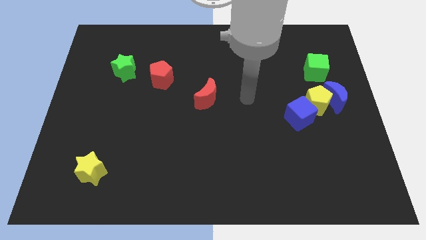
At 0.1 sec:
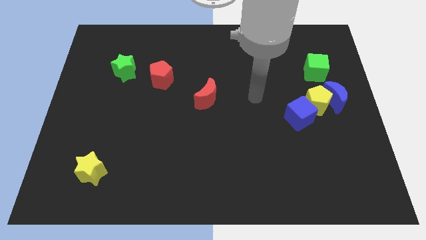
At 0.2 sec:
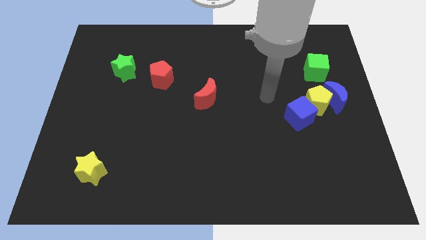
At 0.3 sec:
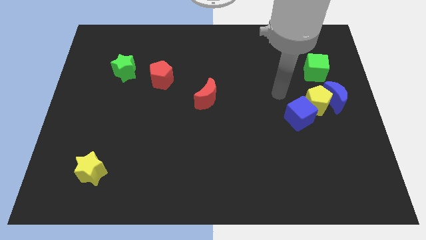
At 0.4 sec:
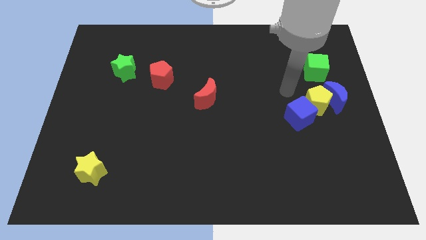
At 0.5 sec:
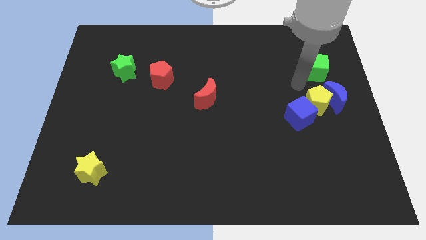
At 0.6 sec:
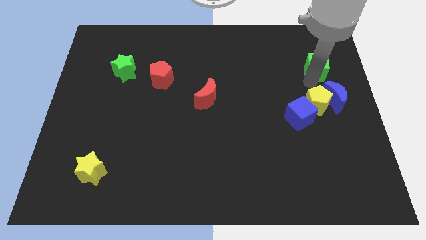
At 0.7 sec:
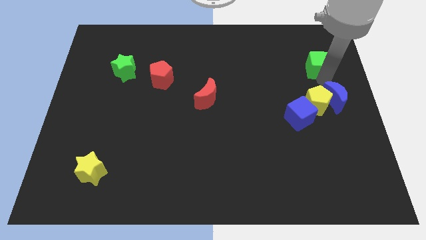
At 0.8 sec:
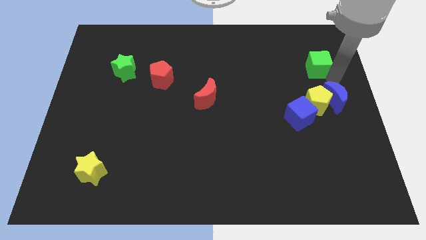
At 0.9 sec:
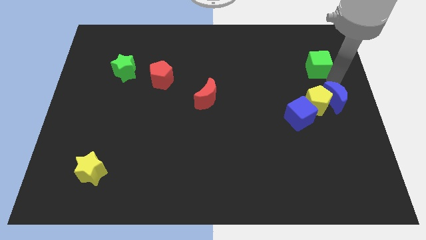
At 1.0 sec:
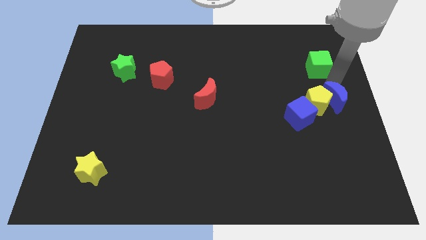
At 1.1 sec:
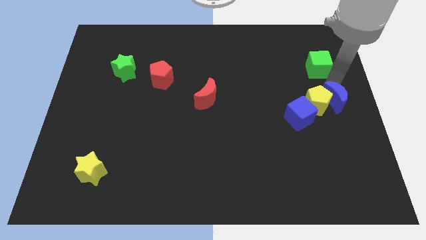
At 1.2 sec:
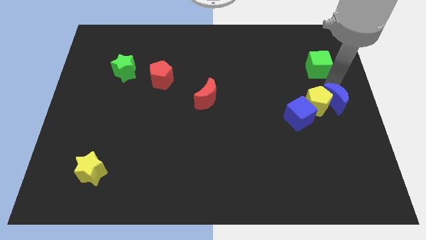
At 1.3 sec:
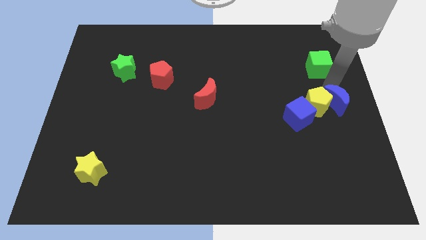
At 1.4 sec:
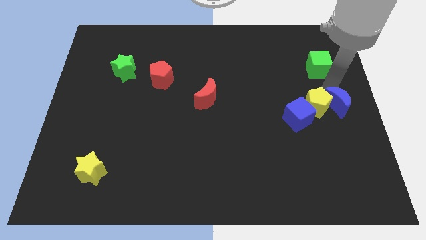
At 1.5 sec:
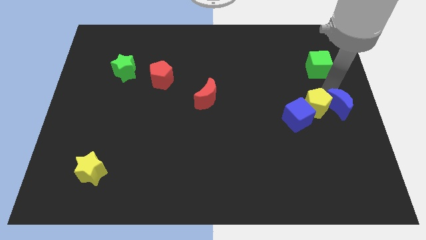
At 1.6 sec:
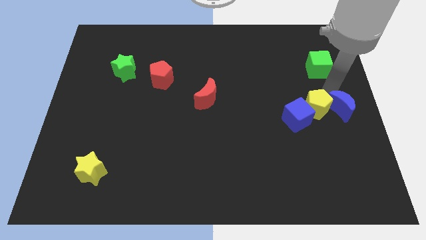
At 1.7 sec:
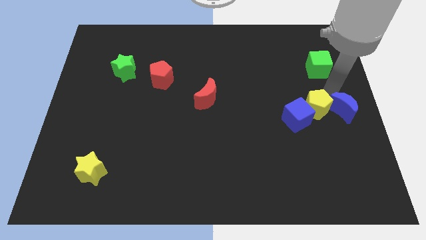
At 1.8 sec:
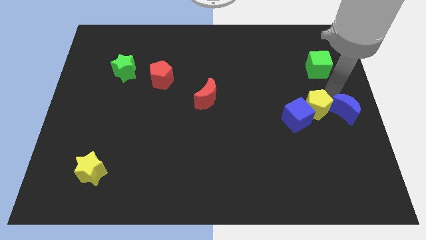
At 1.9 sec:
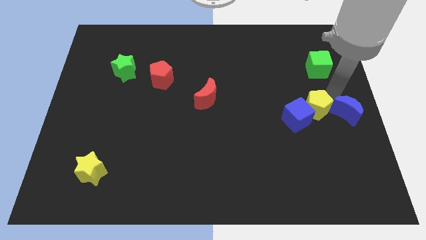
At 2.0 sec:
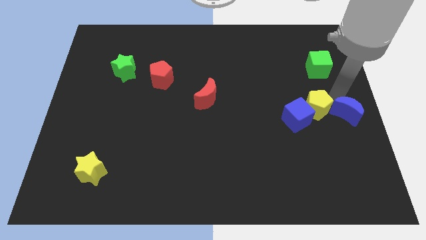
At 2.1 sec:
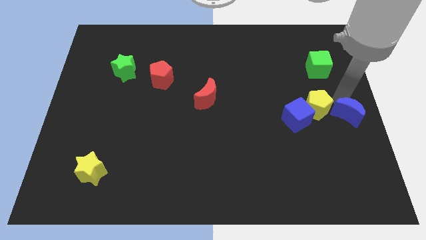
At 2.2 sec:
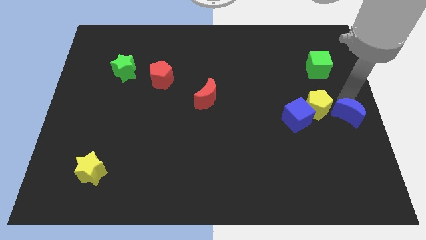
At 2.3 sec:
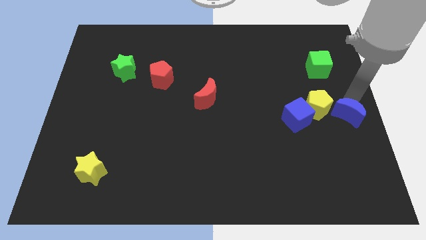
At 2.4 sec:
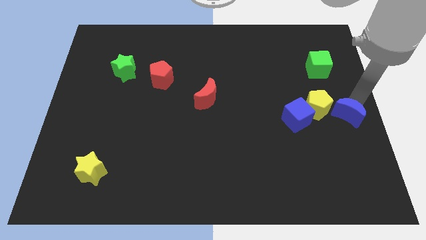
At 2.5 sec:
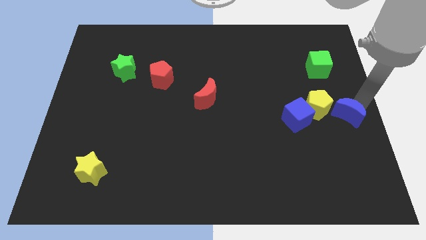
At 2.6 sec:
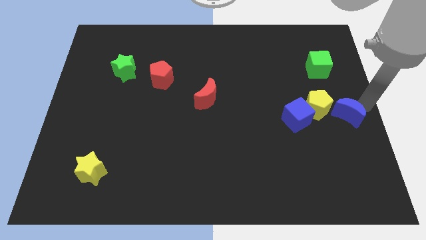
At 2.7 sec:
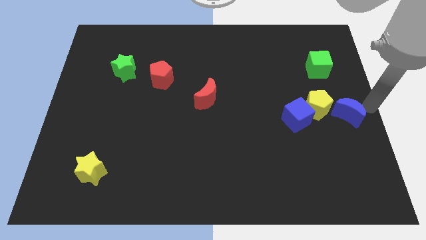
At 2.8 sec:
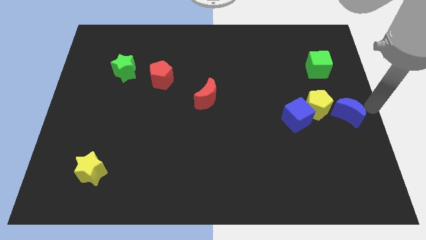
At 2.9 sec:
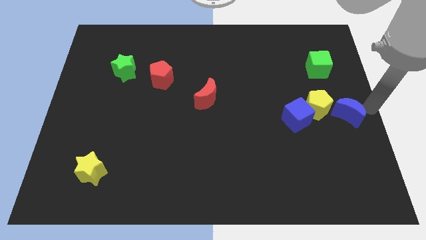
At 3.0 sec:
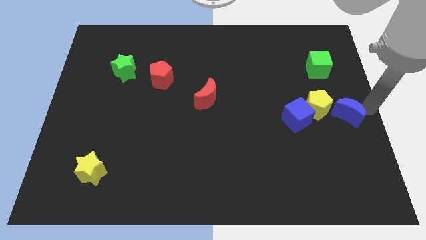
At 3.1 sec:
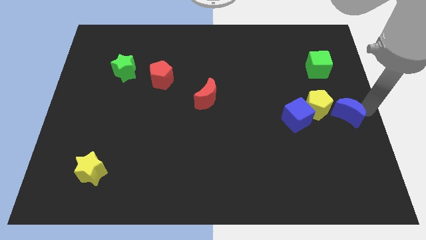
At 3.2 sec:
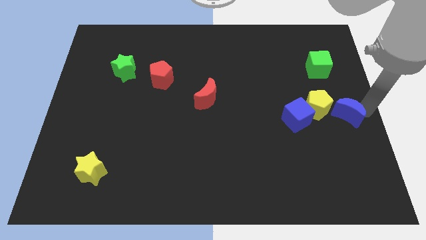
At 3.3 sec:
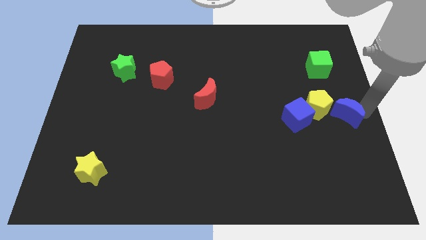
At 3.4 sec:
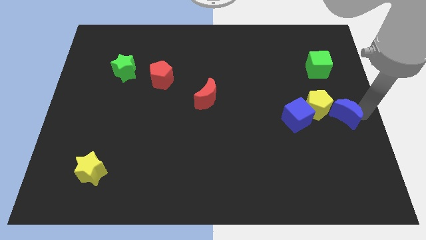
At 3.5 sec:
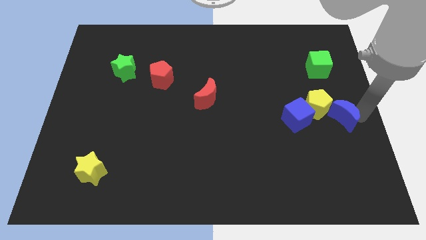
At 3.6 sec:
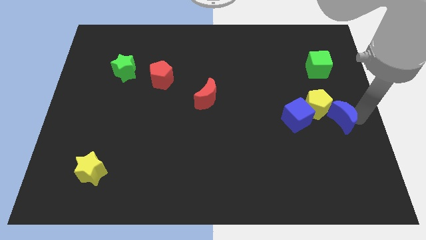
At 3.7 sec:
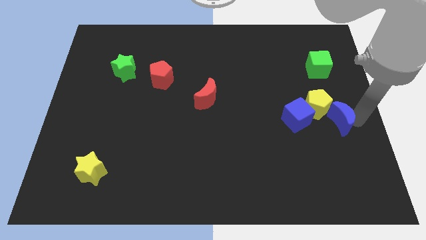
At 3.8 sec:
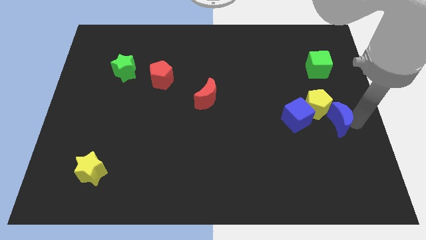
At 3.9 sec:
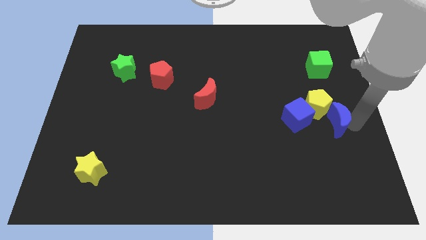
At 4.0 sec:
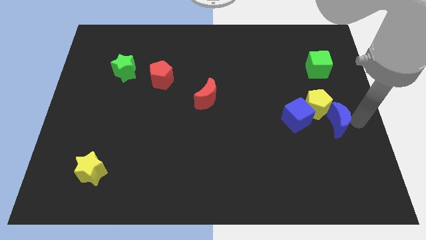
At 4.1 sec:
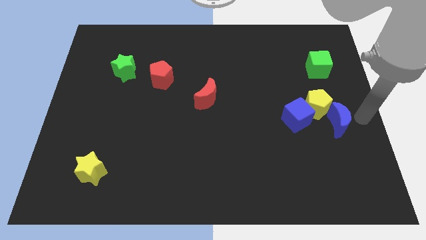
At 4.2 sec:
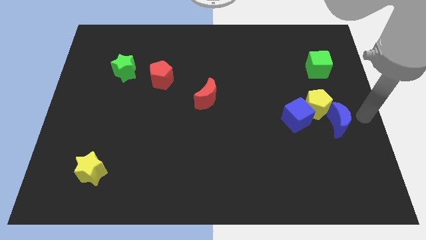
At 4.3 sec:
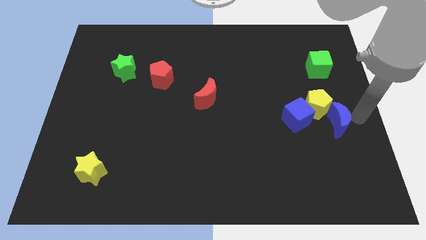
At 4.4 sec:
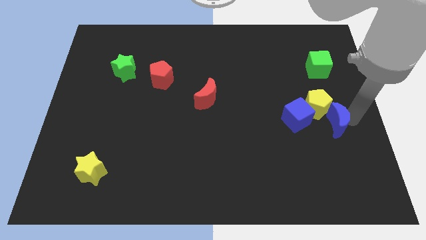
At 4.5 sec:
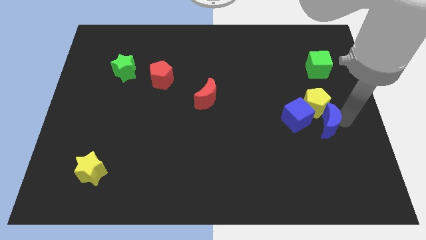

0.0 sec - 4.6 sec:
move the blue moon a little downwards and left diagonally

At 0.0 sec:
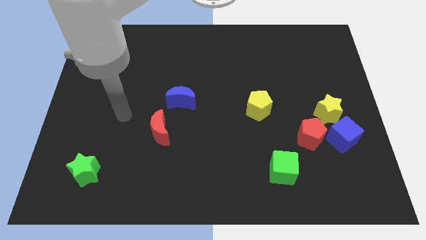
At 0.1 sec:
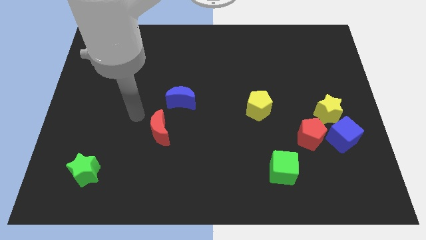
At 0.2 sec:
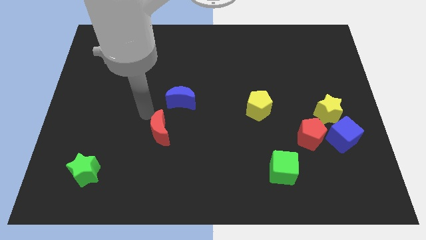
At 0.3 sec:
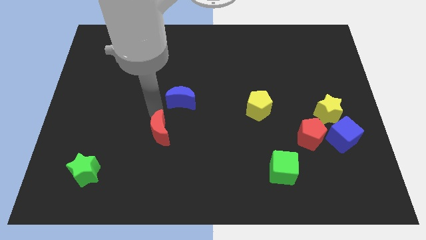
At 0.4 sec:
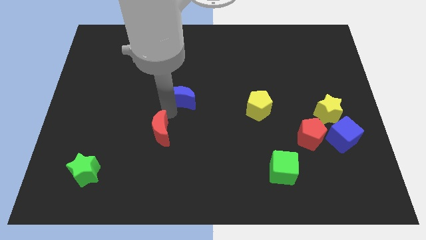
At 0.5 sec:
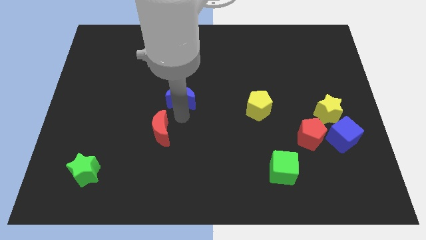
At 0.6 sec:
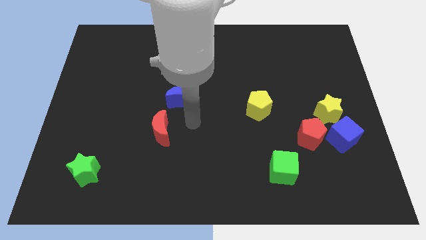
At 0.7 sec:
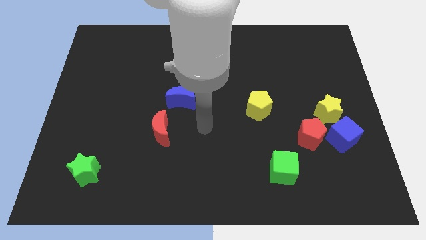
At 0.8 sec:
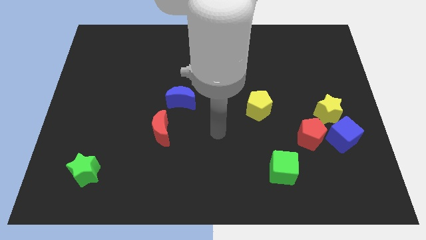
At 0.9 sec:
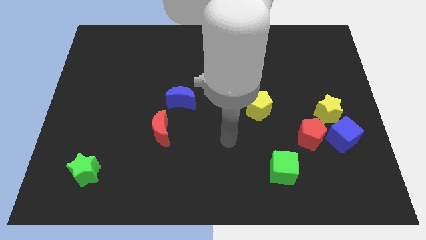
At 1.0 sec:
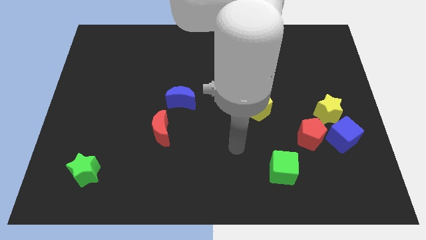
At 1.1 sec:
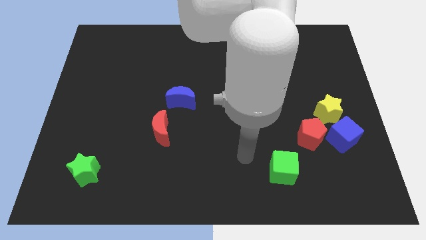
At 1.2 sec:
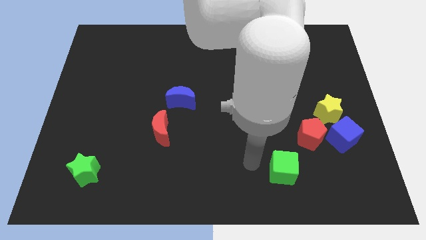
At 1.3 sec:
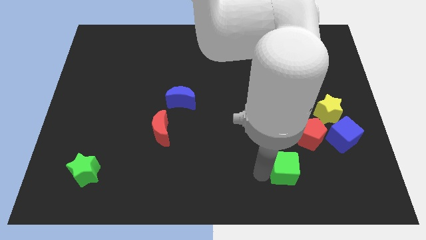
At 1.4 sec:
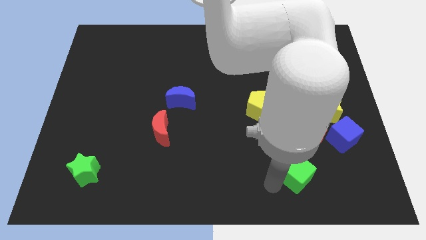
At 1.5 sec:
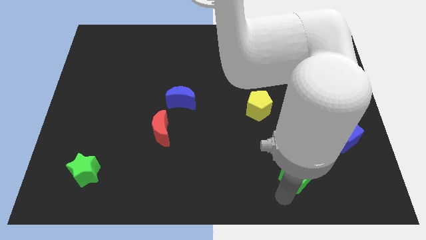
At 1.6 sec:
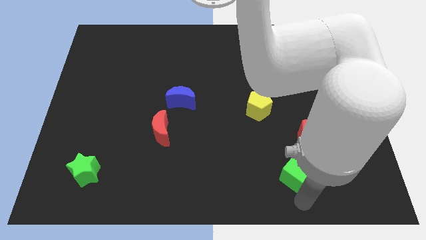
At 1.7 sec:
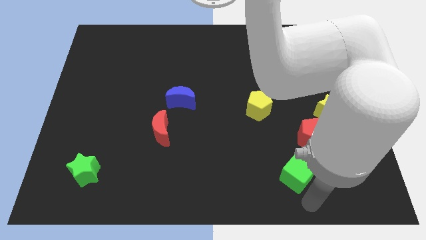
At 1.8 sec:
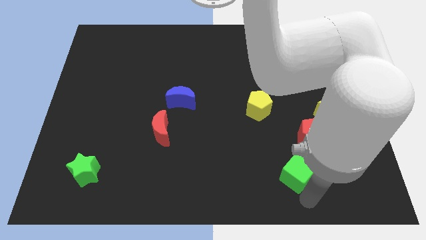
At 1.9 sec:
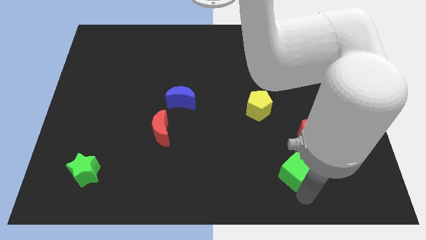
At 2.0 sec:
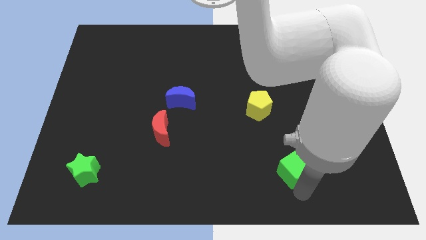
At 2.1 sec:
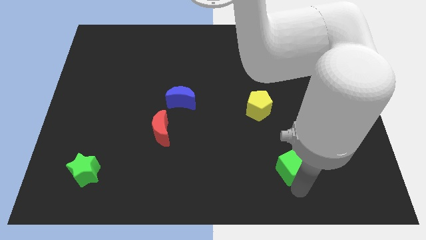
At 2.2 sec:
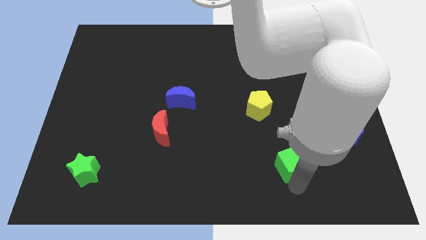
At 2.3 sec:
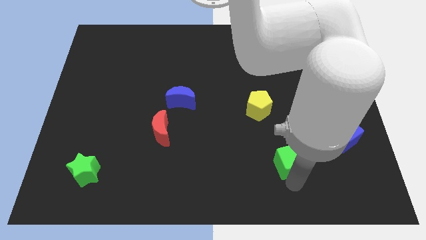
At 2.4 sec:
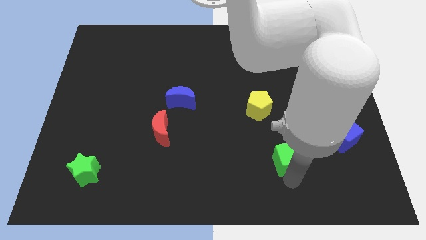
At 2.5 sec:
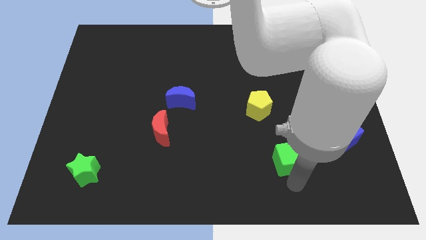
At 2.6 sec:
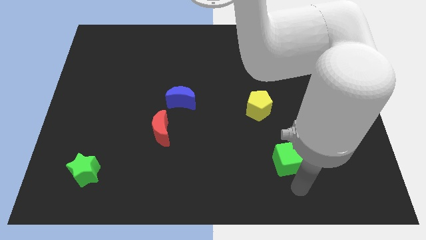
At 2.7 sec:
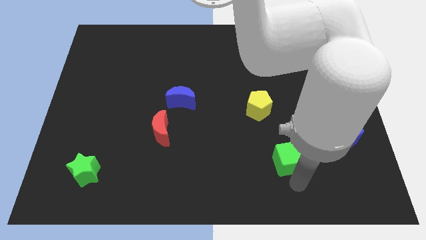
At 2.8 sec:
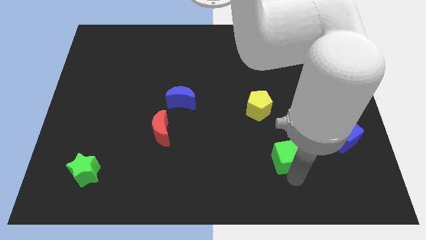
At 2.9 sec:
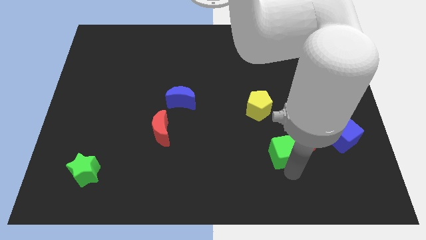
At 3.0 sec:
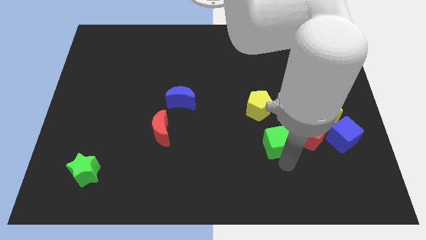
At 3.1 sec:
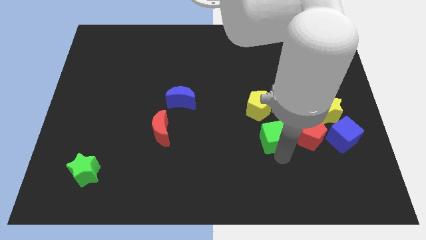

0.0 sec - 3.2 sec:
move the green cube up a little

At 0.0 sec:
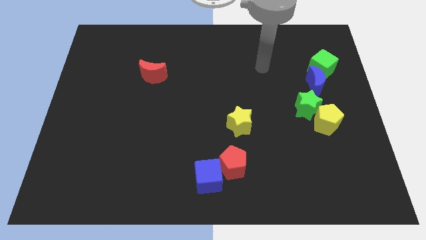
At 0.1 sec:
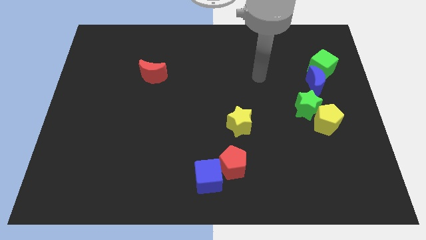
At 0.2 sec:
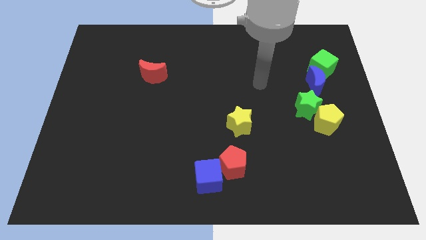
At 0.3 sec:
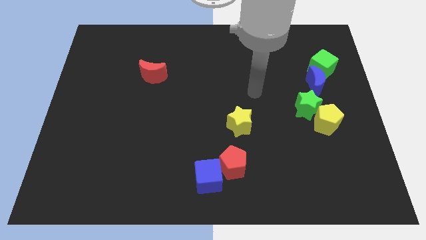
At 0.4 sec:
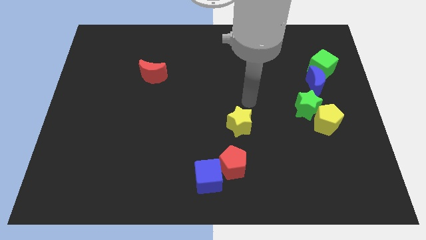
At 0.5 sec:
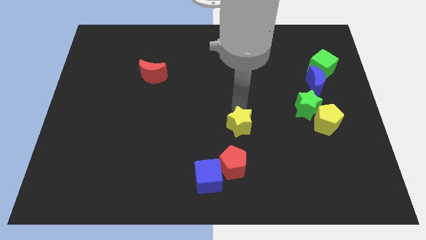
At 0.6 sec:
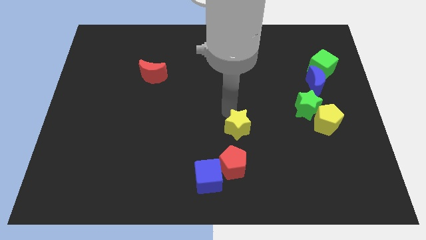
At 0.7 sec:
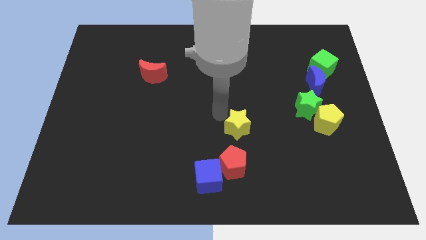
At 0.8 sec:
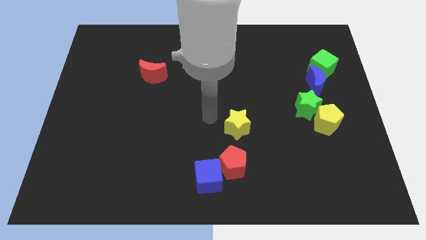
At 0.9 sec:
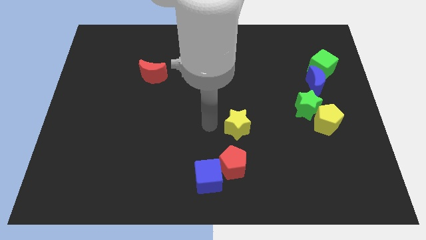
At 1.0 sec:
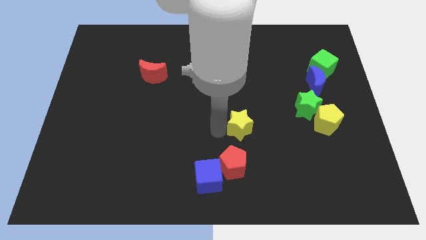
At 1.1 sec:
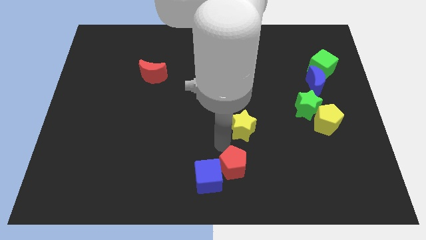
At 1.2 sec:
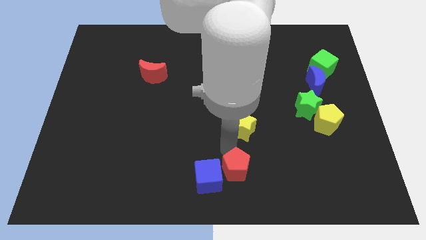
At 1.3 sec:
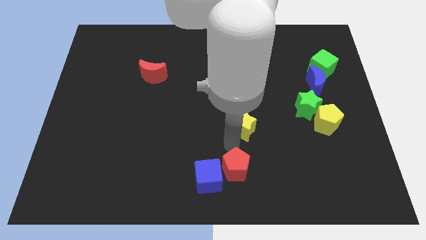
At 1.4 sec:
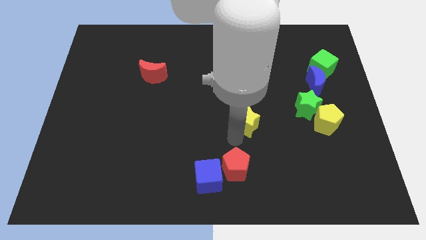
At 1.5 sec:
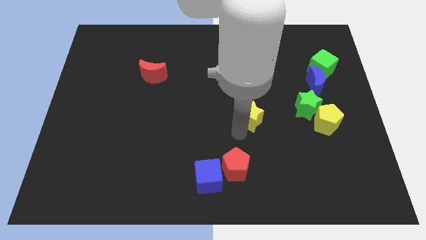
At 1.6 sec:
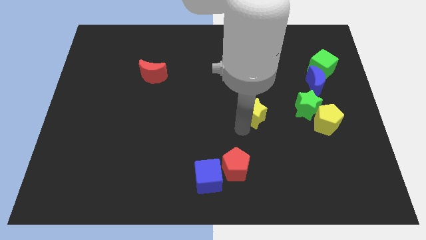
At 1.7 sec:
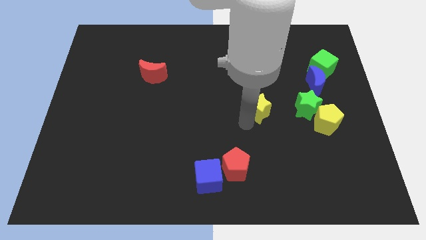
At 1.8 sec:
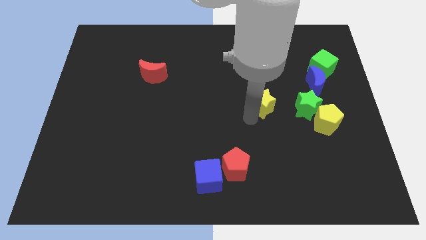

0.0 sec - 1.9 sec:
slightly push the yellow star diagonally upwards and right
